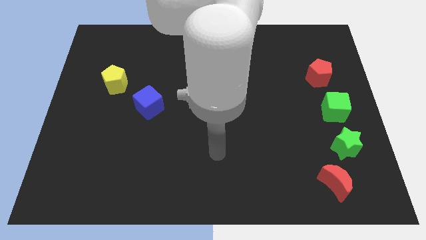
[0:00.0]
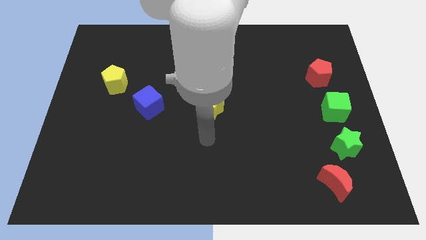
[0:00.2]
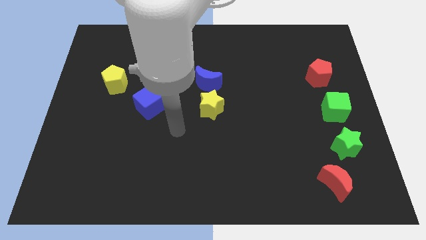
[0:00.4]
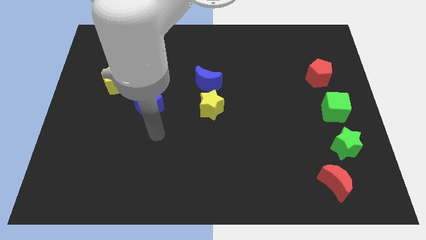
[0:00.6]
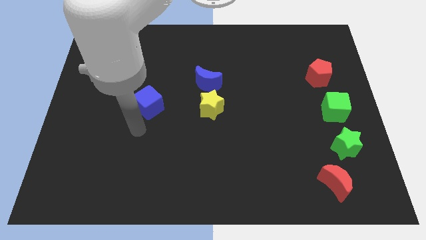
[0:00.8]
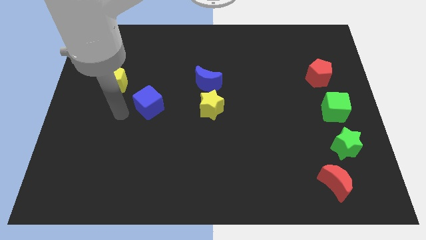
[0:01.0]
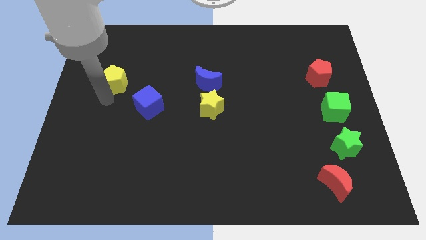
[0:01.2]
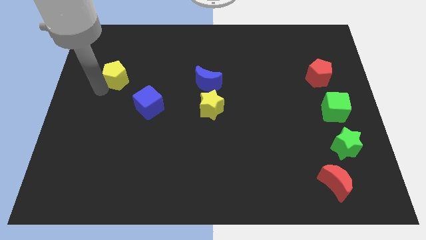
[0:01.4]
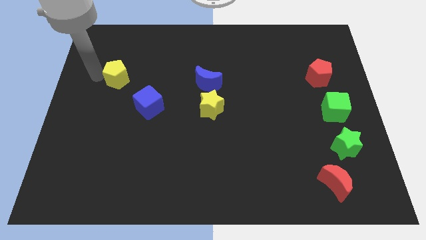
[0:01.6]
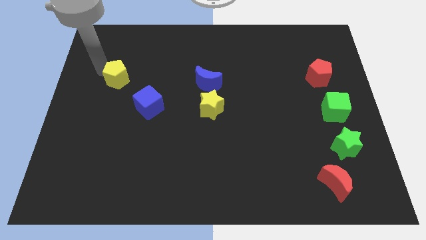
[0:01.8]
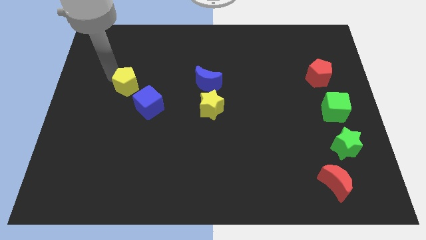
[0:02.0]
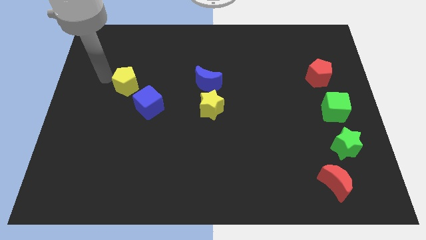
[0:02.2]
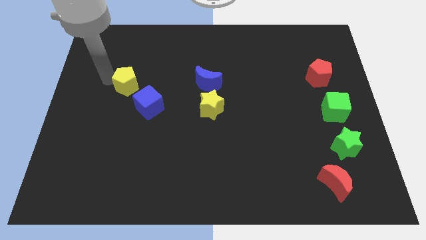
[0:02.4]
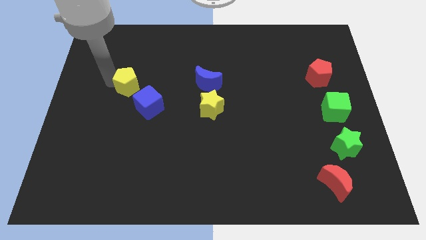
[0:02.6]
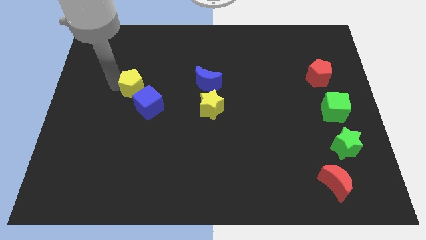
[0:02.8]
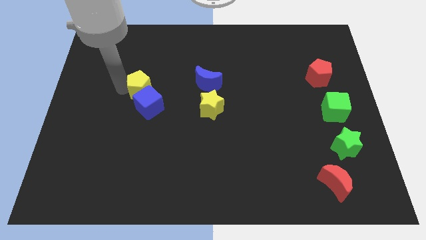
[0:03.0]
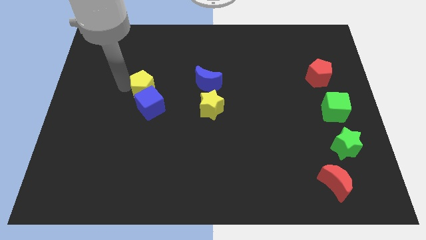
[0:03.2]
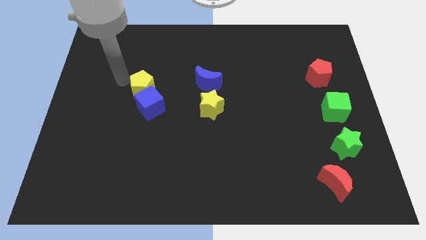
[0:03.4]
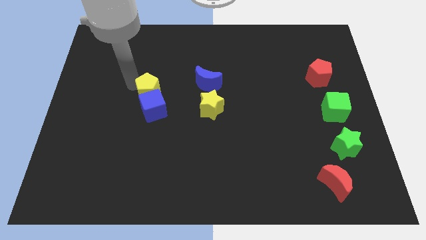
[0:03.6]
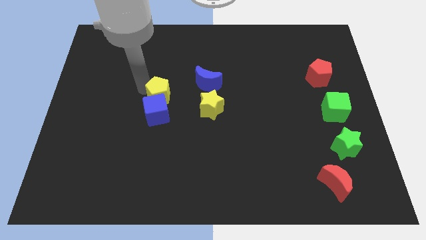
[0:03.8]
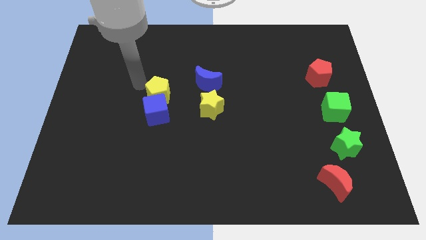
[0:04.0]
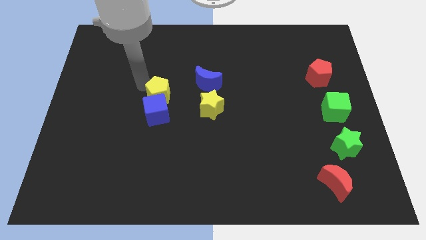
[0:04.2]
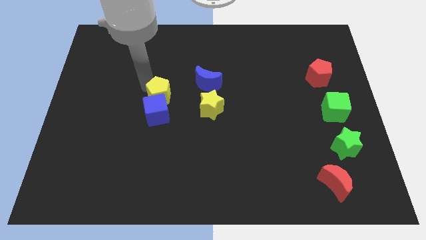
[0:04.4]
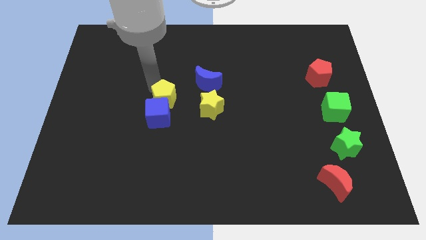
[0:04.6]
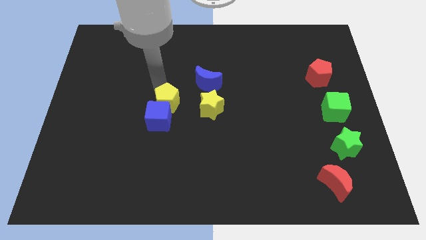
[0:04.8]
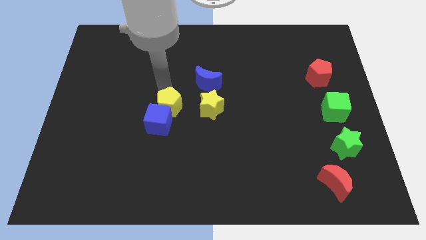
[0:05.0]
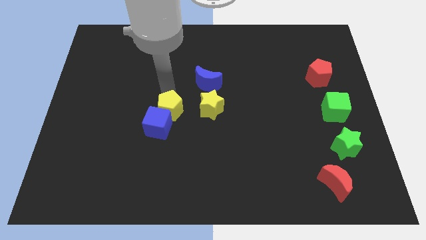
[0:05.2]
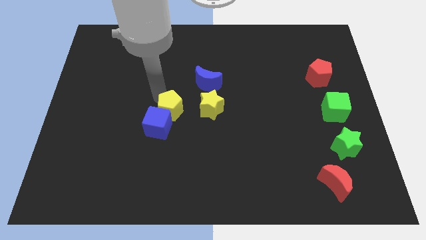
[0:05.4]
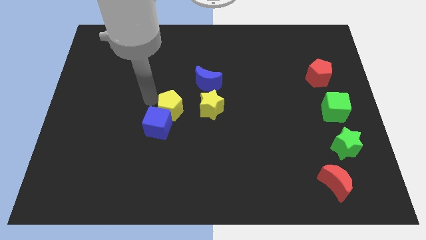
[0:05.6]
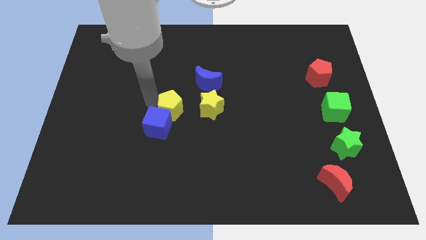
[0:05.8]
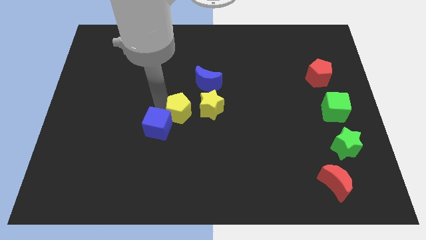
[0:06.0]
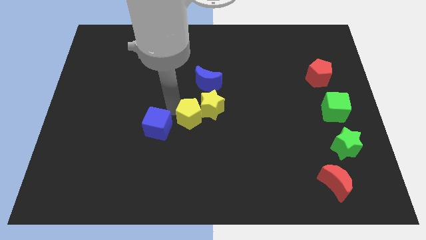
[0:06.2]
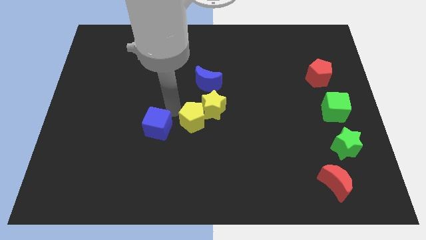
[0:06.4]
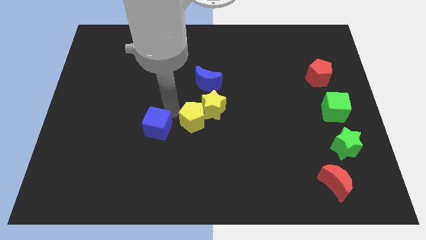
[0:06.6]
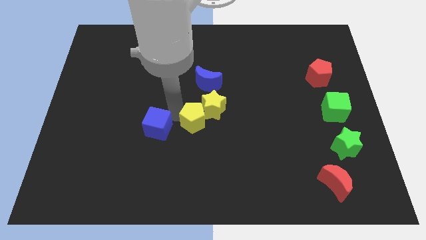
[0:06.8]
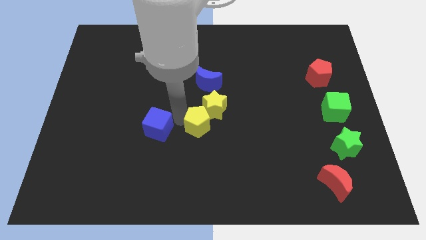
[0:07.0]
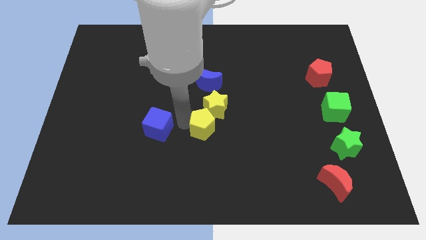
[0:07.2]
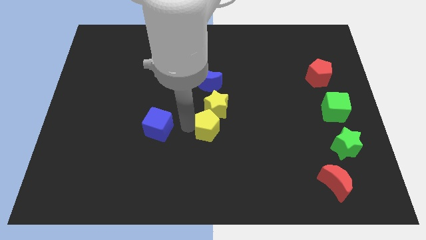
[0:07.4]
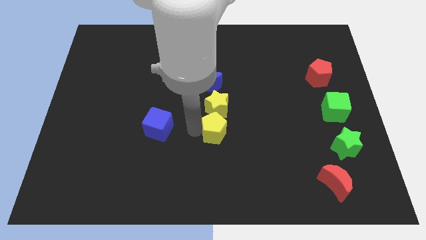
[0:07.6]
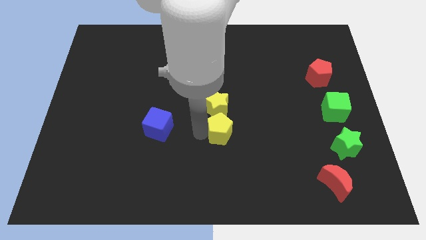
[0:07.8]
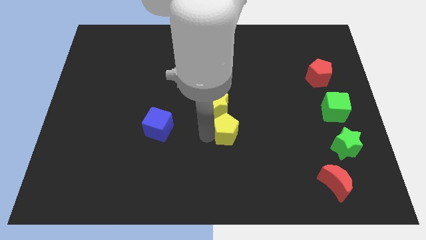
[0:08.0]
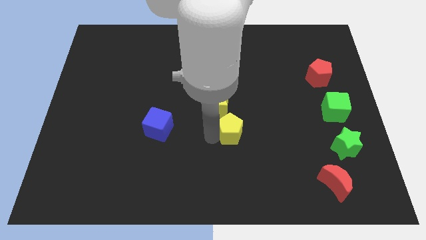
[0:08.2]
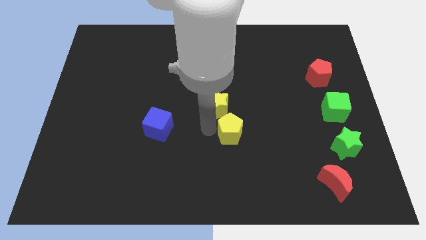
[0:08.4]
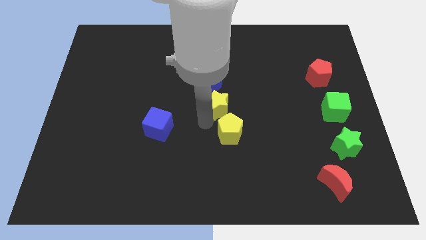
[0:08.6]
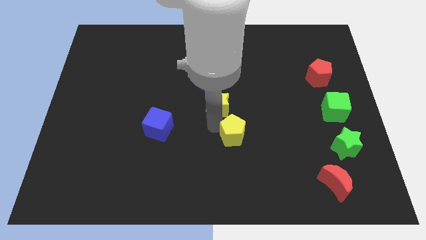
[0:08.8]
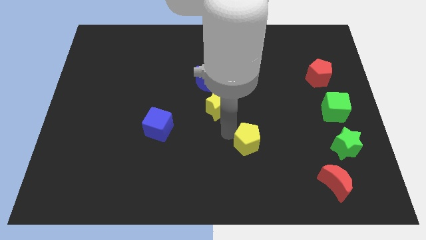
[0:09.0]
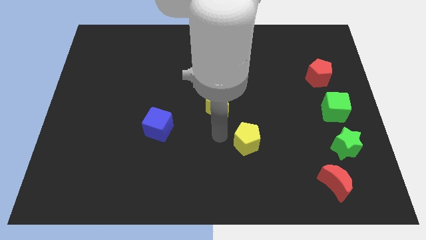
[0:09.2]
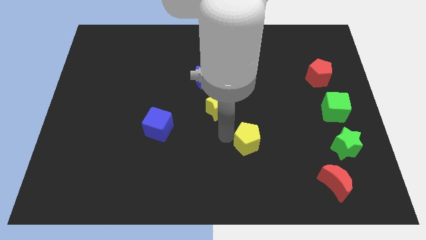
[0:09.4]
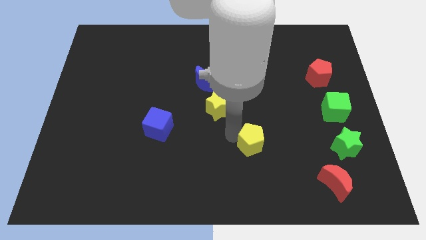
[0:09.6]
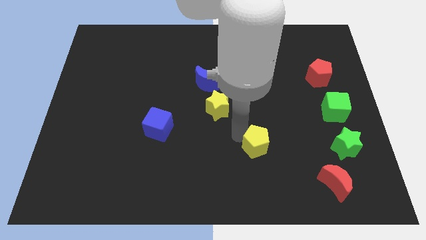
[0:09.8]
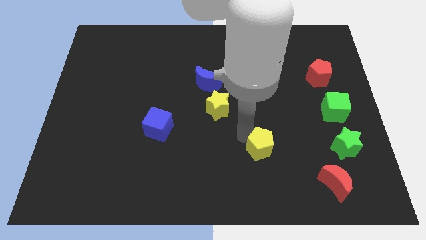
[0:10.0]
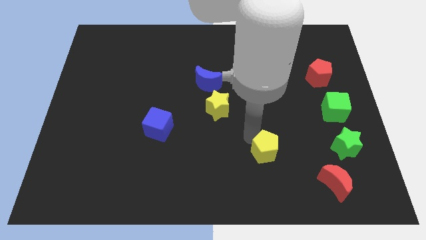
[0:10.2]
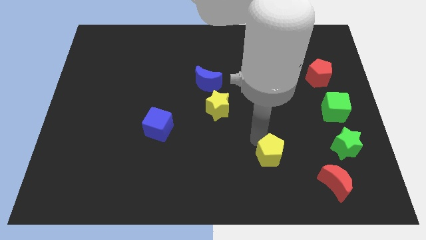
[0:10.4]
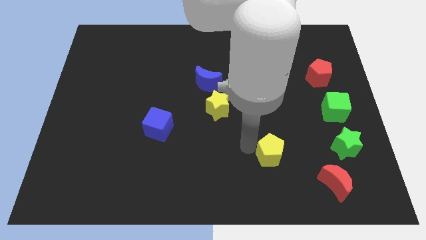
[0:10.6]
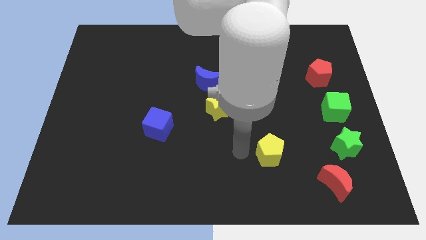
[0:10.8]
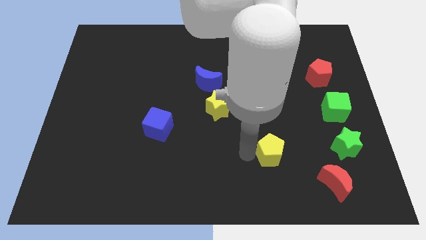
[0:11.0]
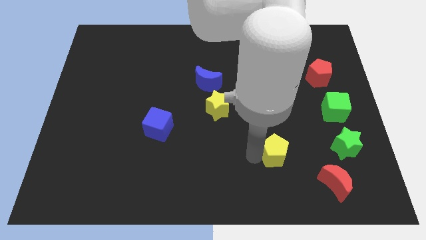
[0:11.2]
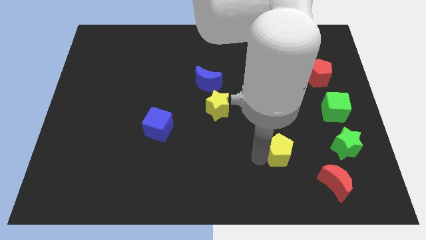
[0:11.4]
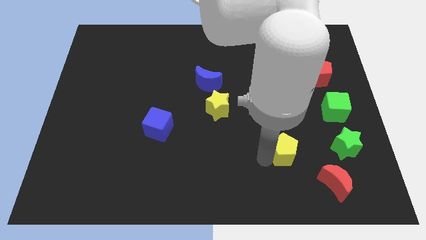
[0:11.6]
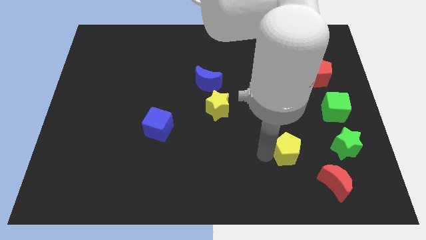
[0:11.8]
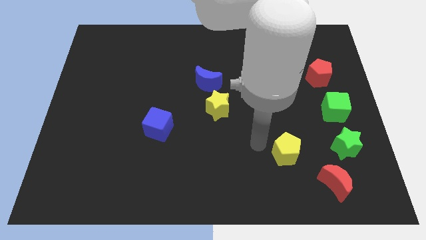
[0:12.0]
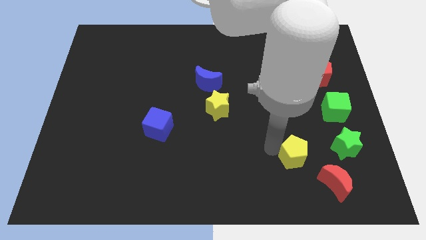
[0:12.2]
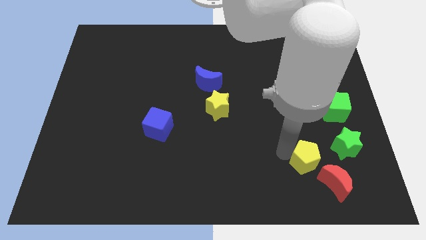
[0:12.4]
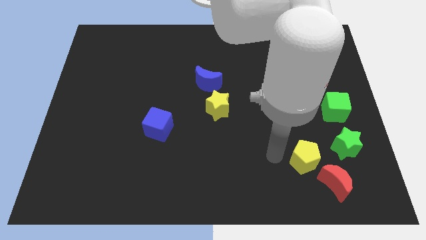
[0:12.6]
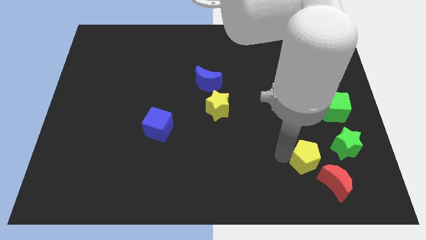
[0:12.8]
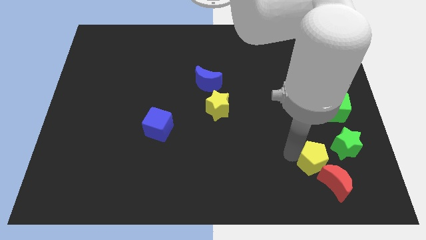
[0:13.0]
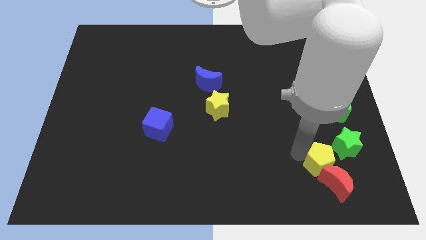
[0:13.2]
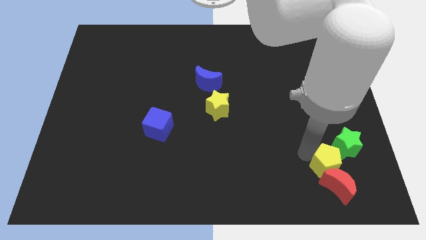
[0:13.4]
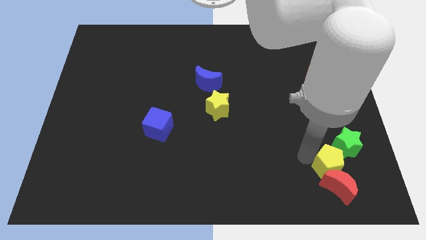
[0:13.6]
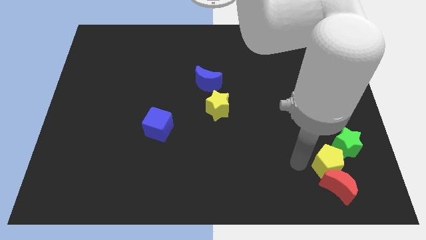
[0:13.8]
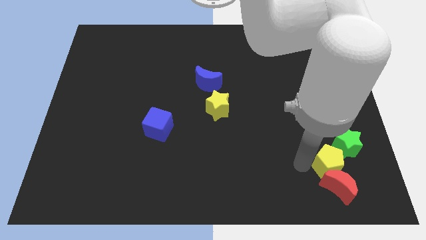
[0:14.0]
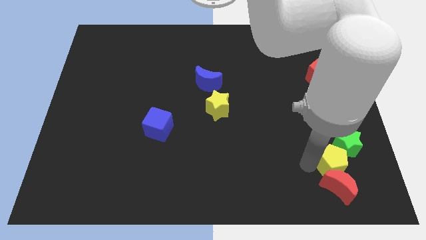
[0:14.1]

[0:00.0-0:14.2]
slide the yellow pentagon to the bottom side of the green cube
